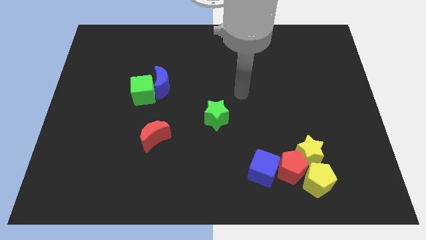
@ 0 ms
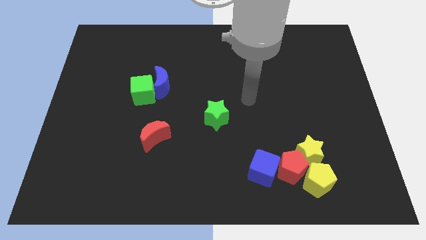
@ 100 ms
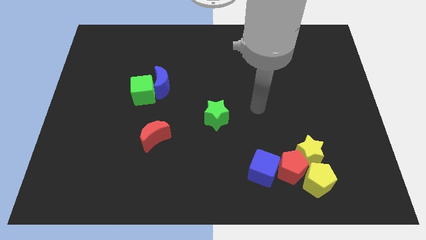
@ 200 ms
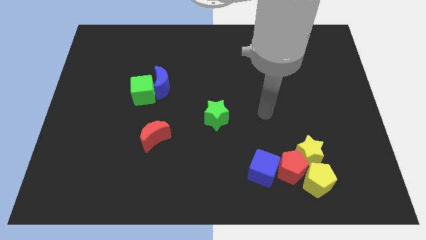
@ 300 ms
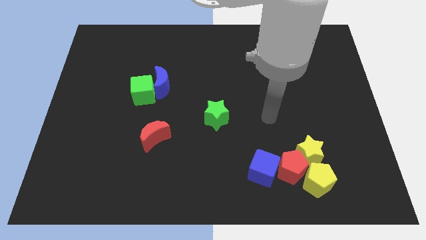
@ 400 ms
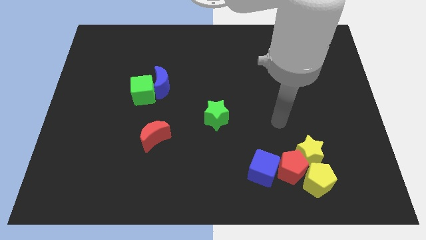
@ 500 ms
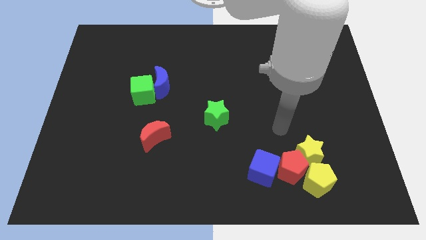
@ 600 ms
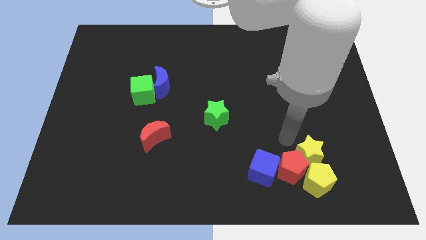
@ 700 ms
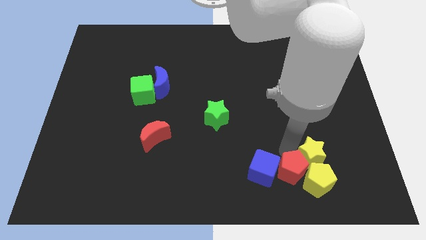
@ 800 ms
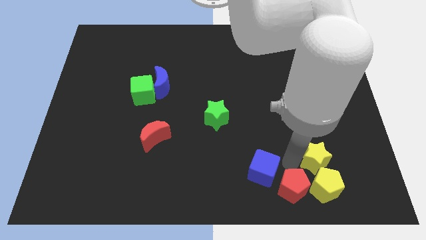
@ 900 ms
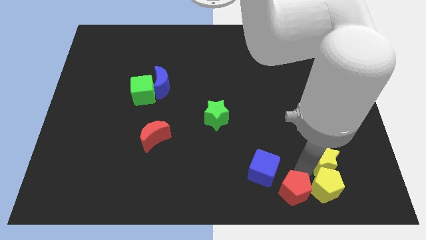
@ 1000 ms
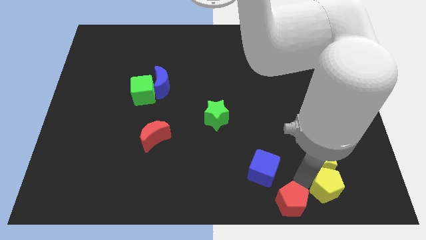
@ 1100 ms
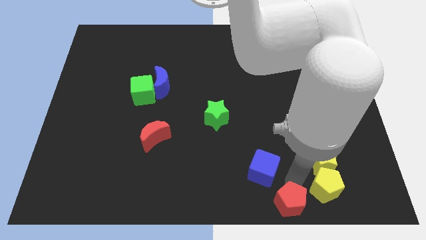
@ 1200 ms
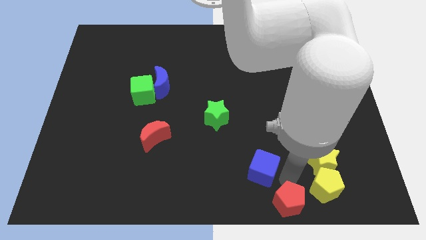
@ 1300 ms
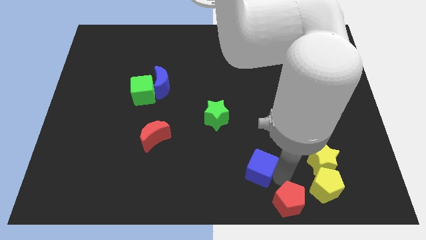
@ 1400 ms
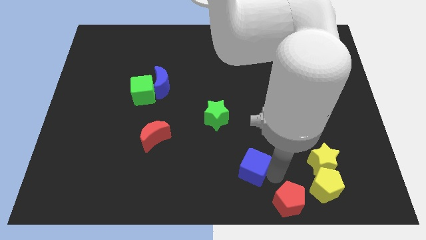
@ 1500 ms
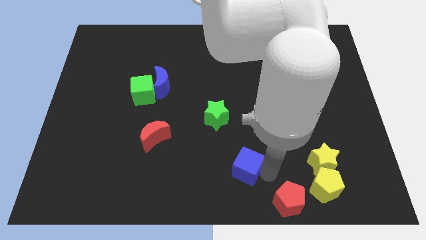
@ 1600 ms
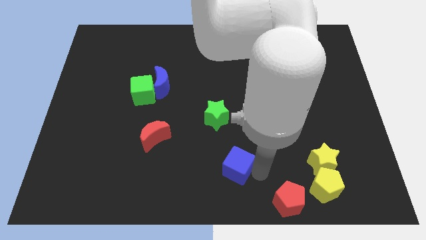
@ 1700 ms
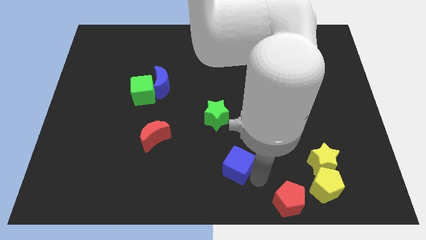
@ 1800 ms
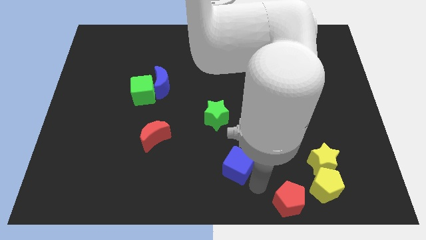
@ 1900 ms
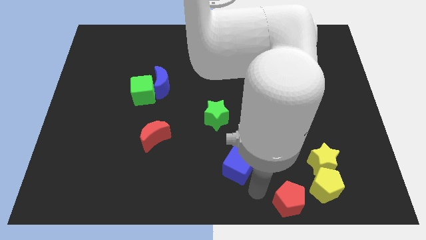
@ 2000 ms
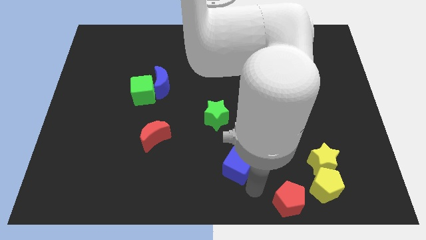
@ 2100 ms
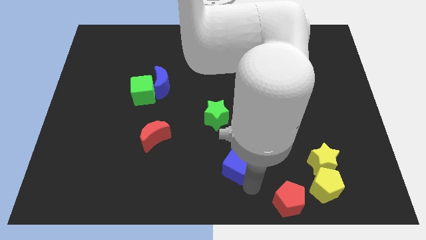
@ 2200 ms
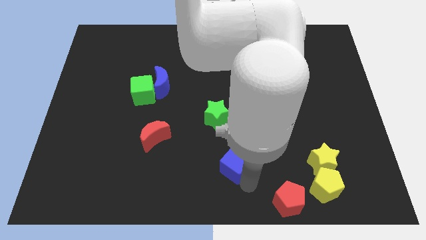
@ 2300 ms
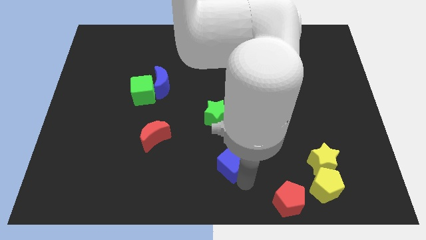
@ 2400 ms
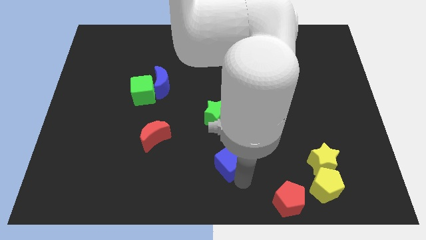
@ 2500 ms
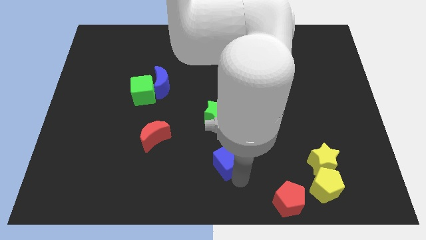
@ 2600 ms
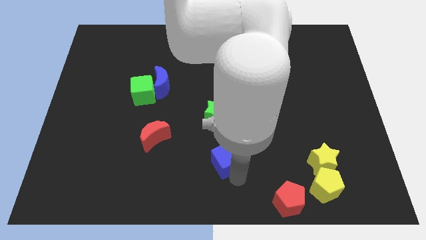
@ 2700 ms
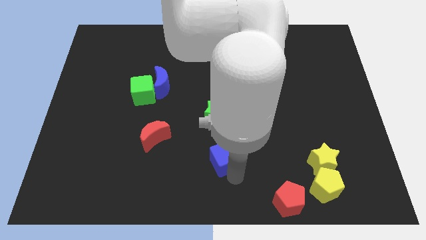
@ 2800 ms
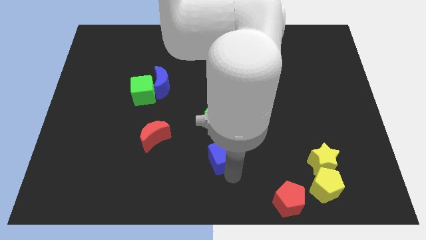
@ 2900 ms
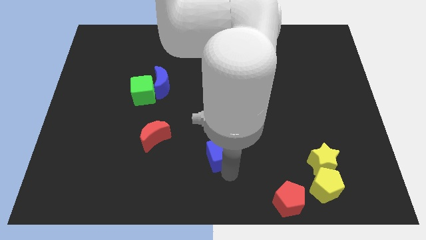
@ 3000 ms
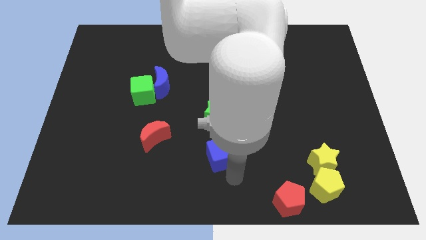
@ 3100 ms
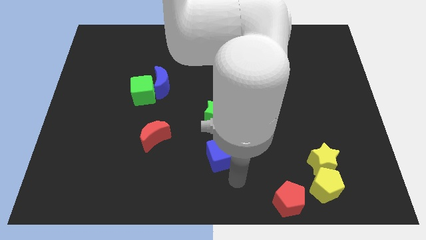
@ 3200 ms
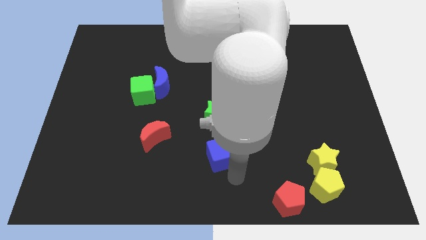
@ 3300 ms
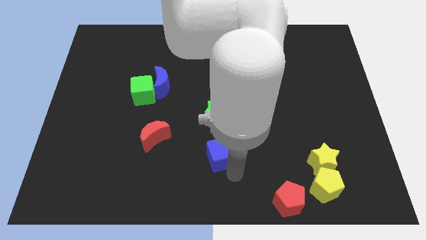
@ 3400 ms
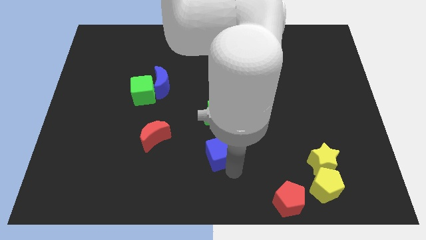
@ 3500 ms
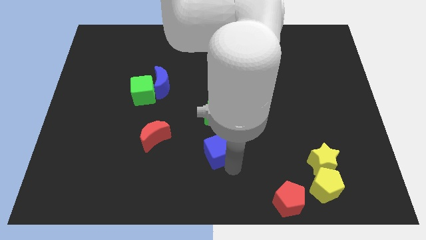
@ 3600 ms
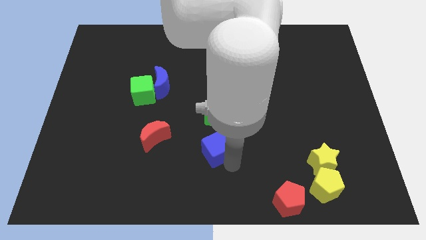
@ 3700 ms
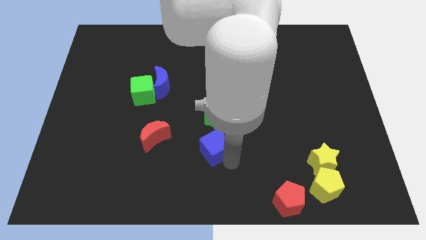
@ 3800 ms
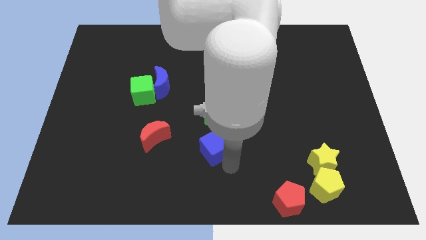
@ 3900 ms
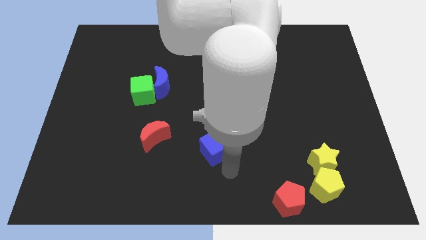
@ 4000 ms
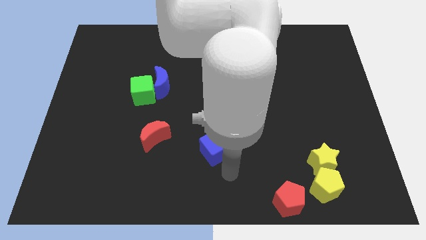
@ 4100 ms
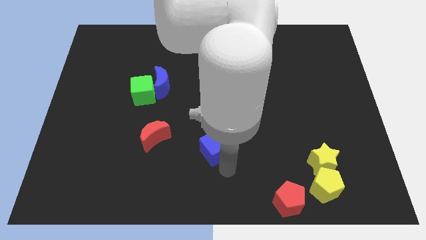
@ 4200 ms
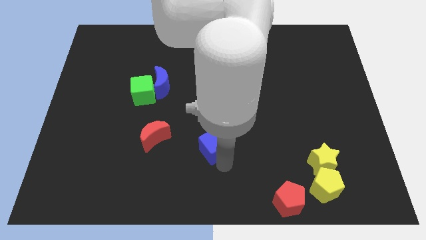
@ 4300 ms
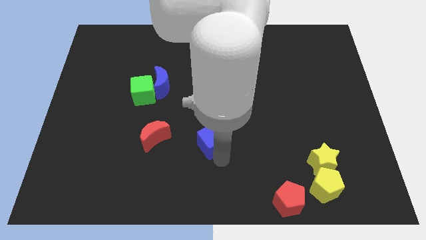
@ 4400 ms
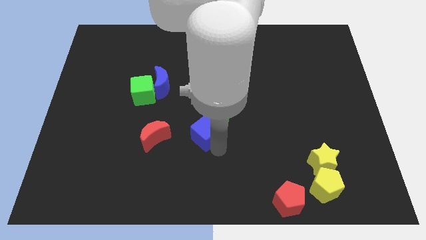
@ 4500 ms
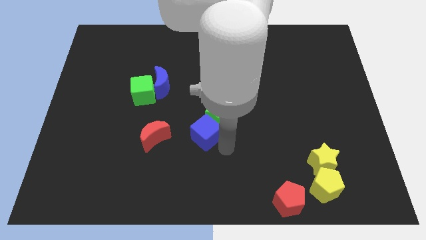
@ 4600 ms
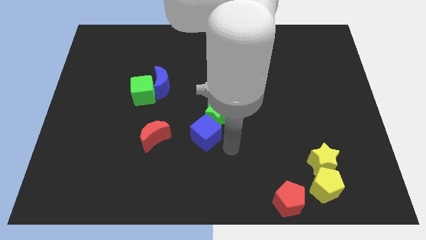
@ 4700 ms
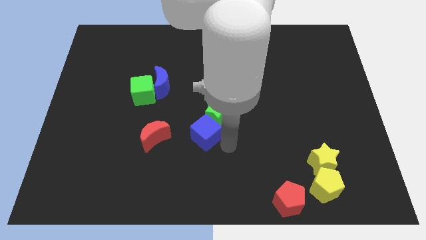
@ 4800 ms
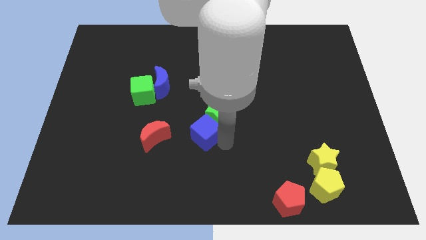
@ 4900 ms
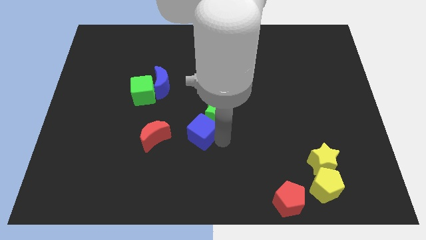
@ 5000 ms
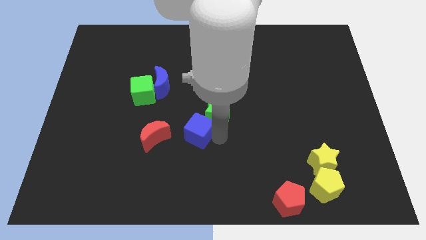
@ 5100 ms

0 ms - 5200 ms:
move the blue cube to the left of the green star

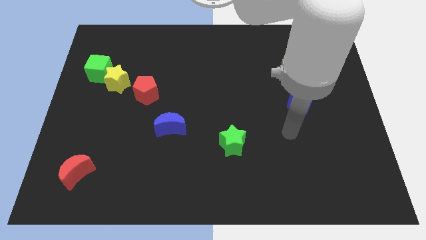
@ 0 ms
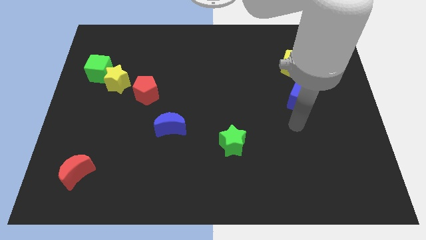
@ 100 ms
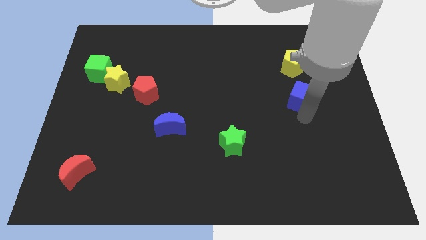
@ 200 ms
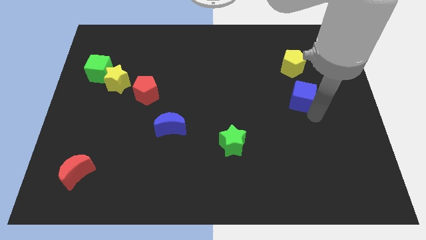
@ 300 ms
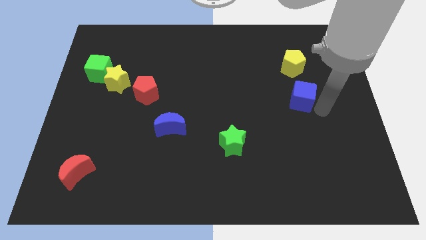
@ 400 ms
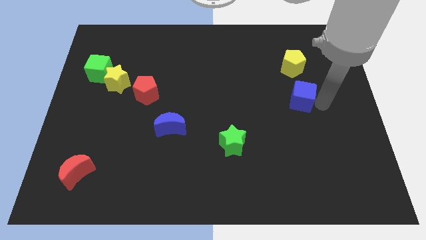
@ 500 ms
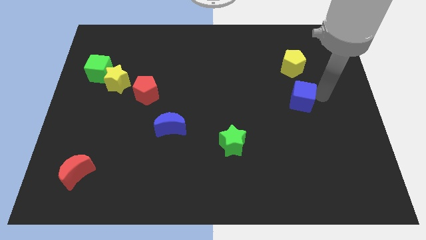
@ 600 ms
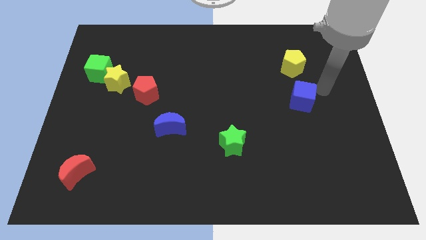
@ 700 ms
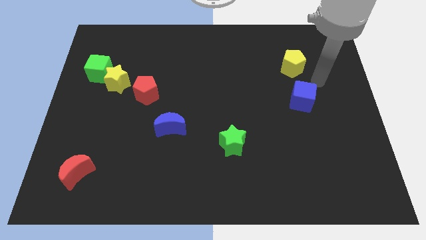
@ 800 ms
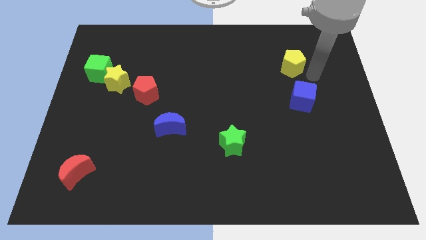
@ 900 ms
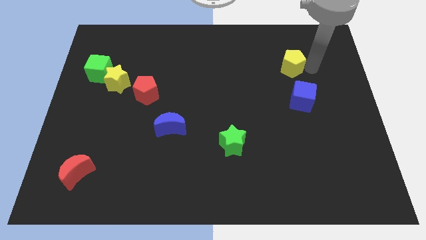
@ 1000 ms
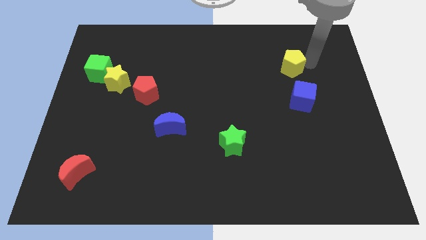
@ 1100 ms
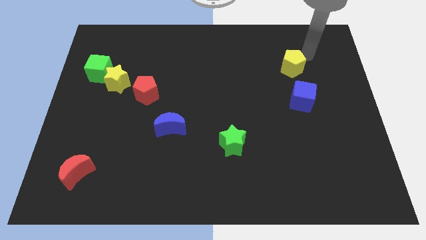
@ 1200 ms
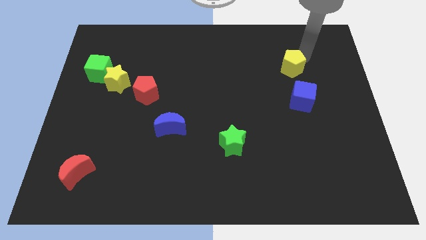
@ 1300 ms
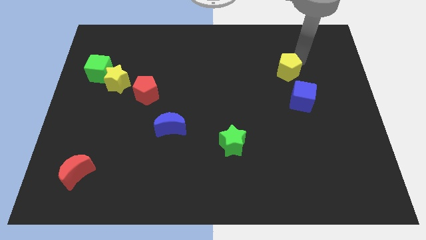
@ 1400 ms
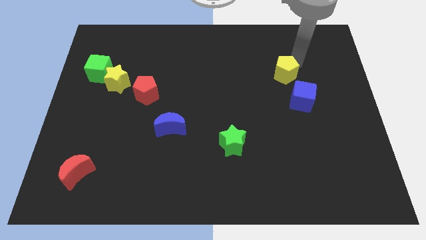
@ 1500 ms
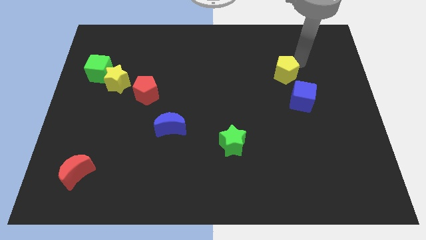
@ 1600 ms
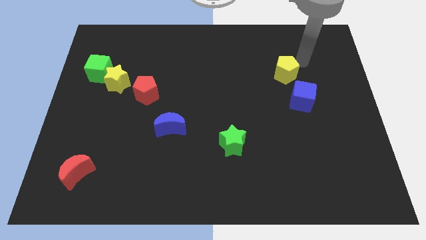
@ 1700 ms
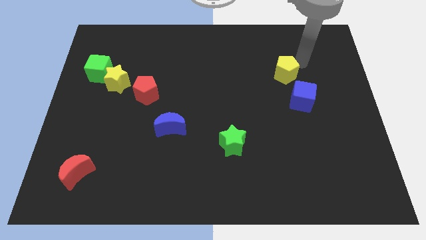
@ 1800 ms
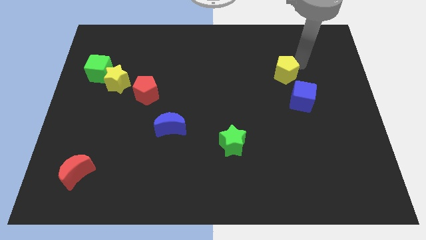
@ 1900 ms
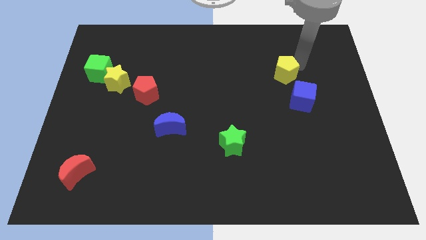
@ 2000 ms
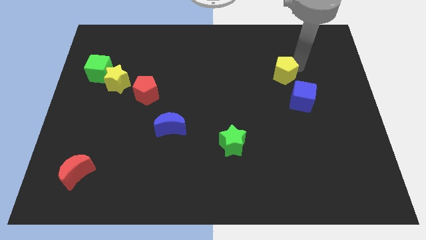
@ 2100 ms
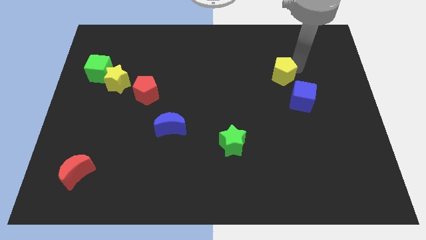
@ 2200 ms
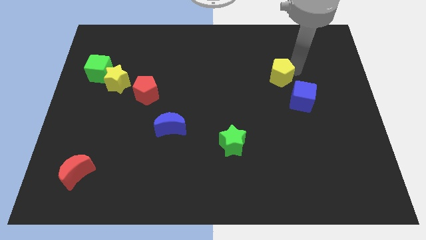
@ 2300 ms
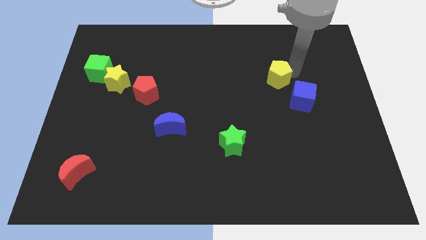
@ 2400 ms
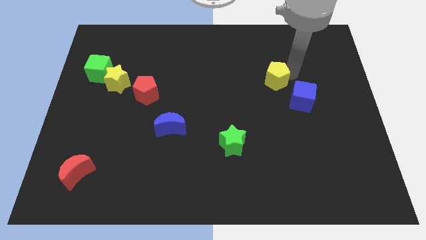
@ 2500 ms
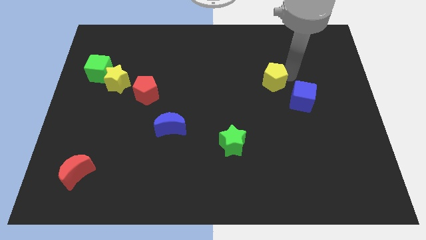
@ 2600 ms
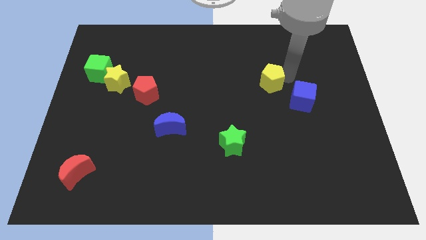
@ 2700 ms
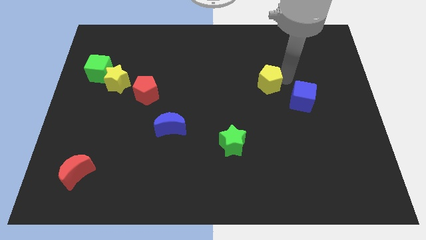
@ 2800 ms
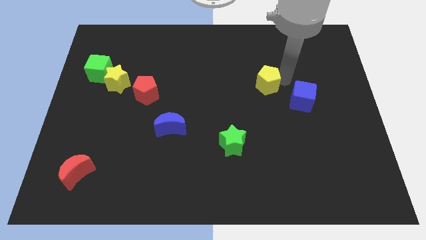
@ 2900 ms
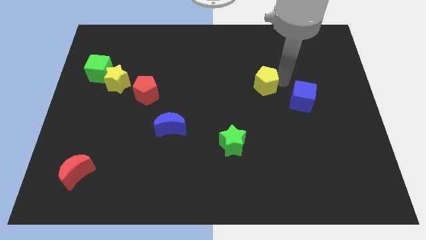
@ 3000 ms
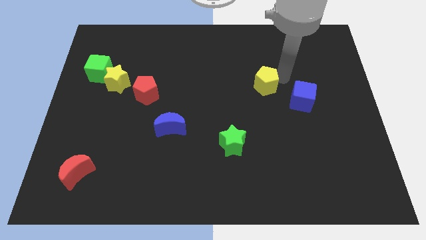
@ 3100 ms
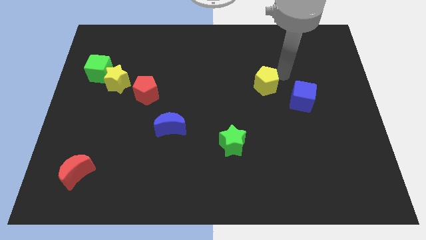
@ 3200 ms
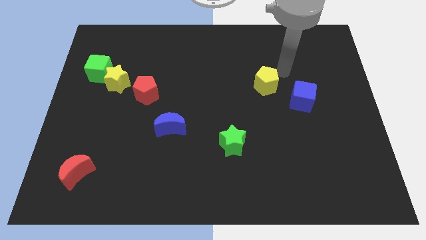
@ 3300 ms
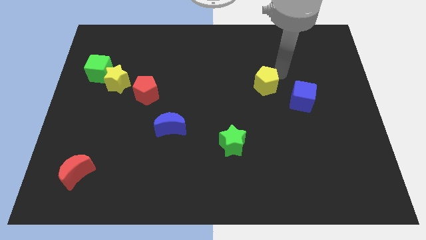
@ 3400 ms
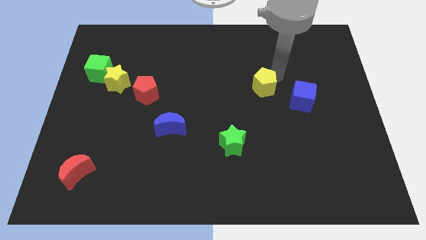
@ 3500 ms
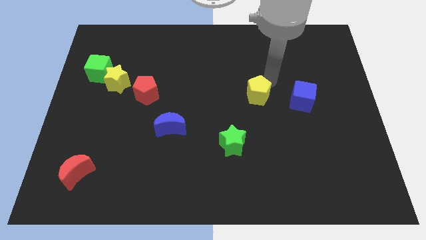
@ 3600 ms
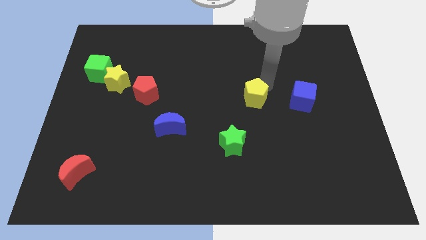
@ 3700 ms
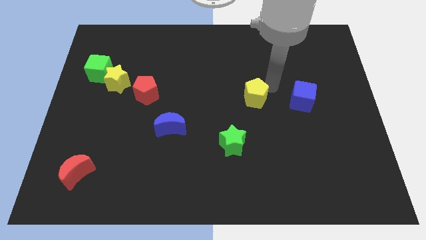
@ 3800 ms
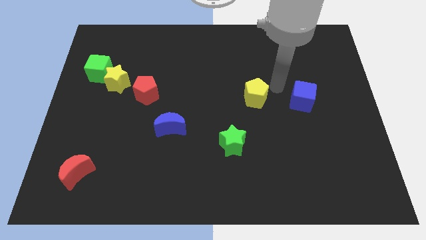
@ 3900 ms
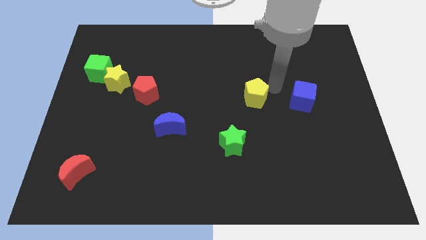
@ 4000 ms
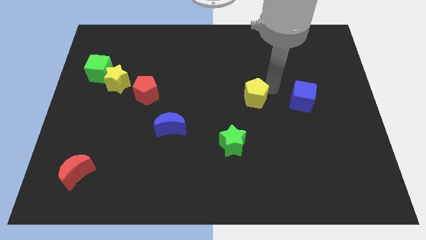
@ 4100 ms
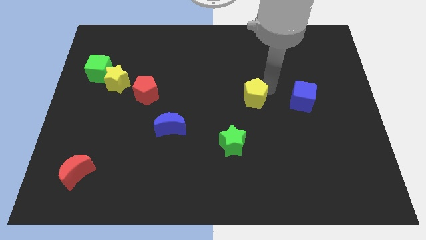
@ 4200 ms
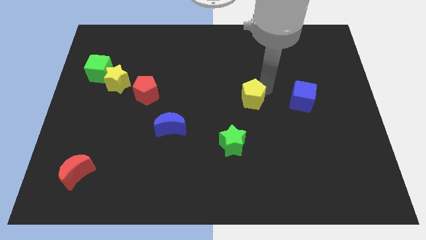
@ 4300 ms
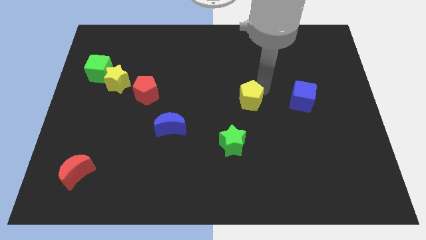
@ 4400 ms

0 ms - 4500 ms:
slide the yellow pentagon to the top of the green star
